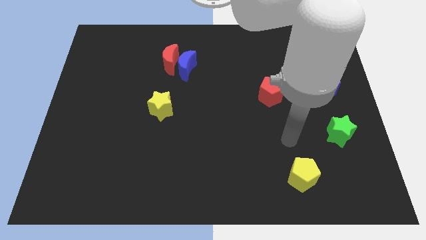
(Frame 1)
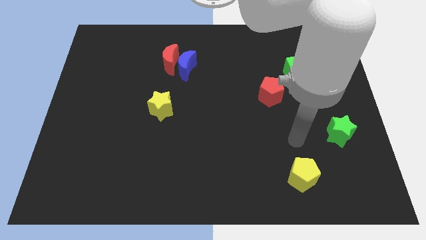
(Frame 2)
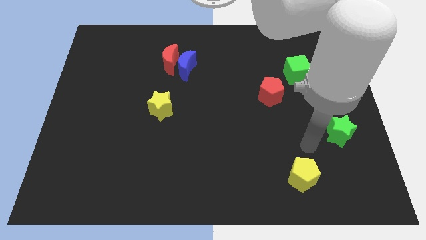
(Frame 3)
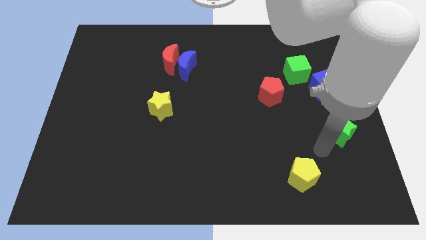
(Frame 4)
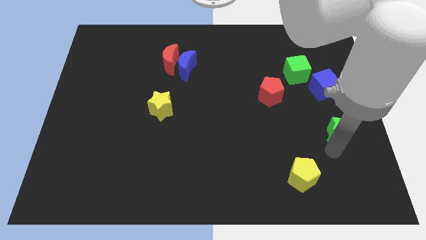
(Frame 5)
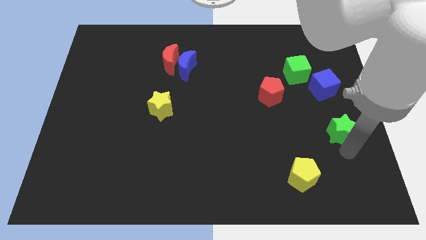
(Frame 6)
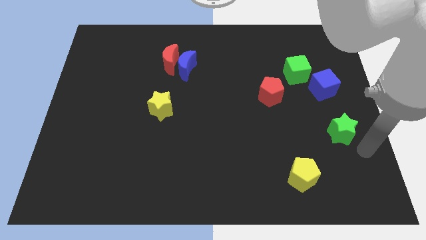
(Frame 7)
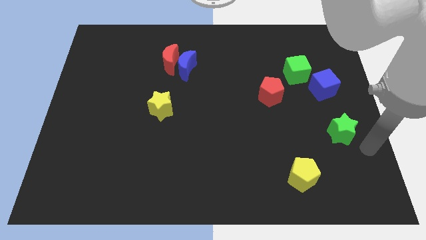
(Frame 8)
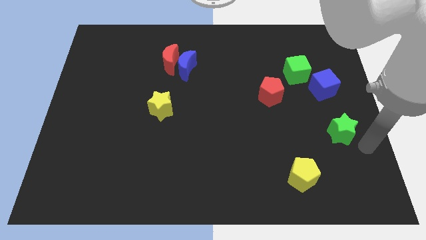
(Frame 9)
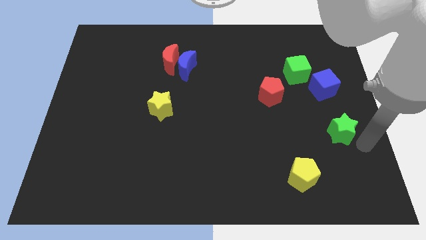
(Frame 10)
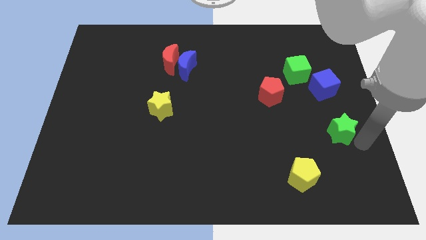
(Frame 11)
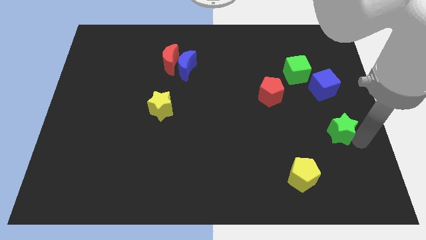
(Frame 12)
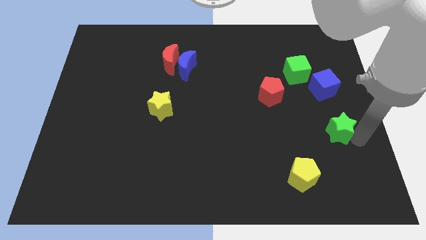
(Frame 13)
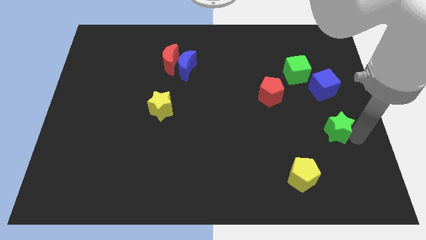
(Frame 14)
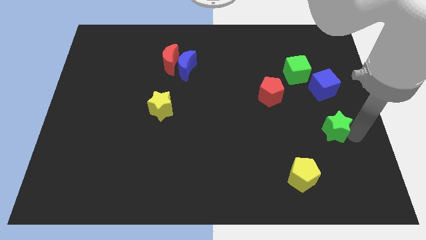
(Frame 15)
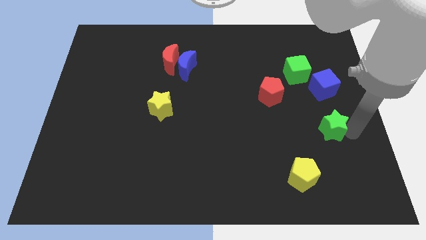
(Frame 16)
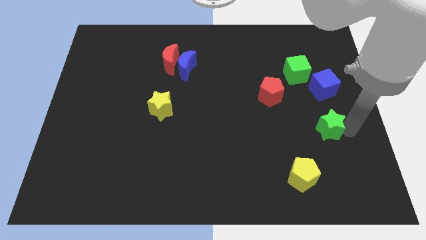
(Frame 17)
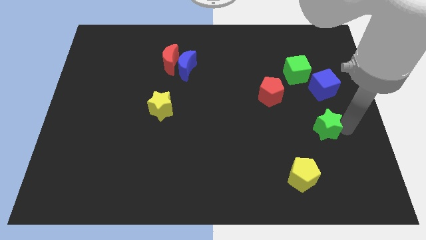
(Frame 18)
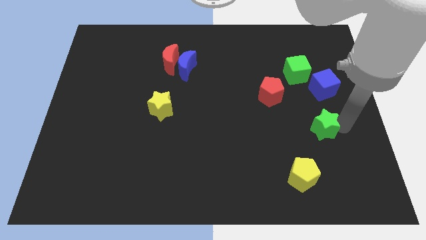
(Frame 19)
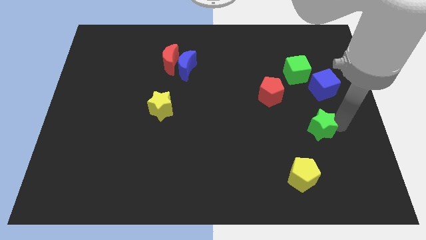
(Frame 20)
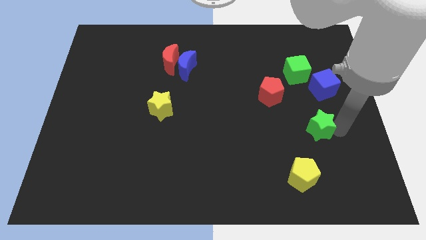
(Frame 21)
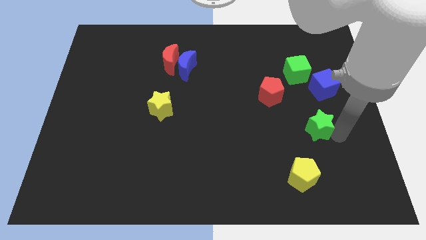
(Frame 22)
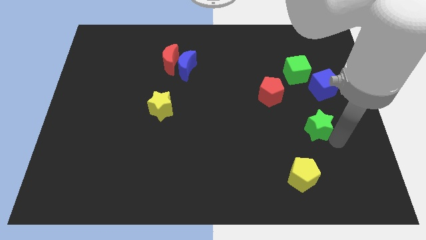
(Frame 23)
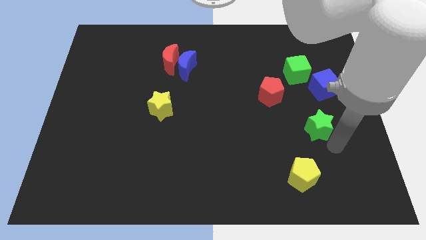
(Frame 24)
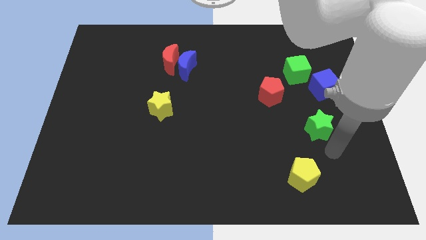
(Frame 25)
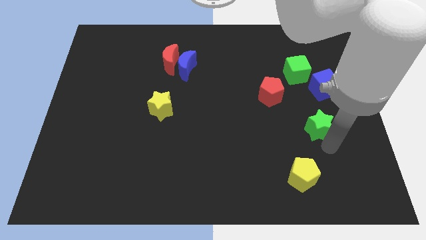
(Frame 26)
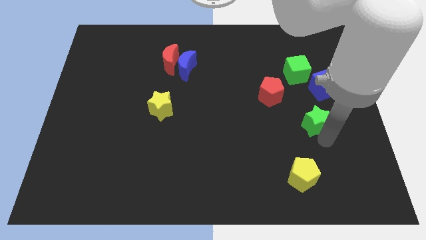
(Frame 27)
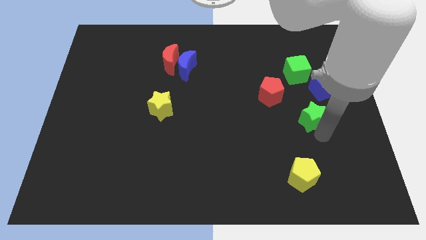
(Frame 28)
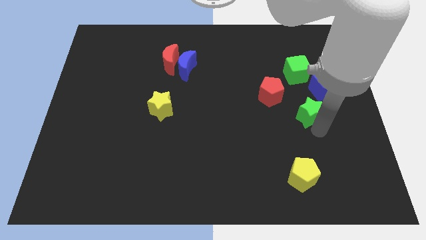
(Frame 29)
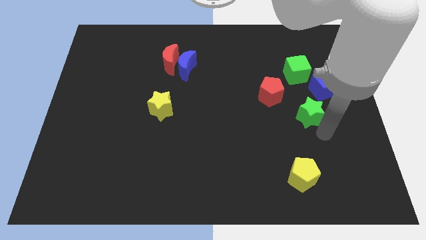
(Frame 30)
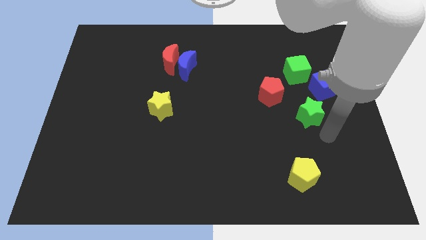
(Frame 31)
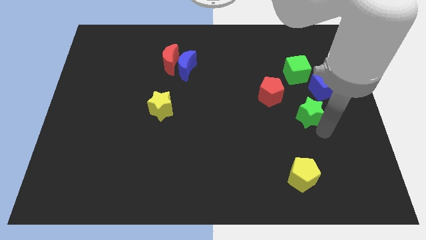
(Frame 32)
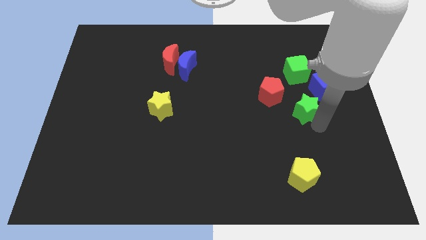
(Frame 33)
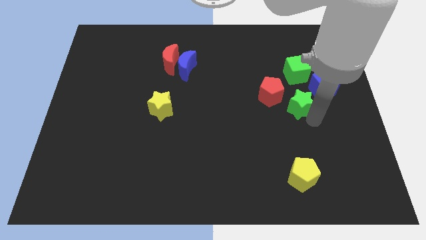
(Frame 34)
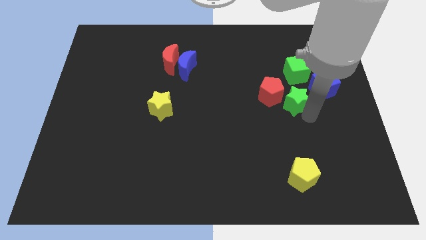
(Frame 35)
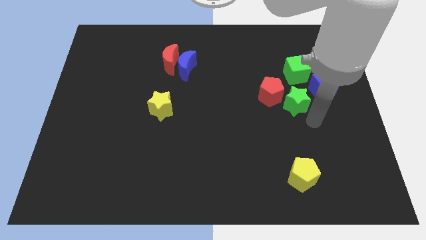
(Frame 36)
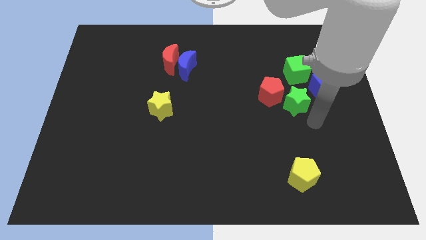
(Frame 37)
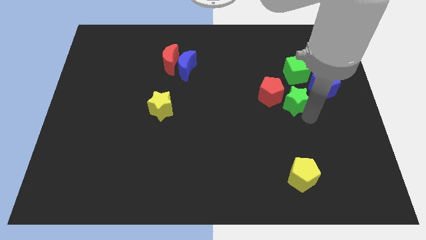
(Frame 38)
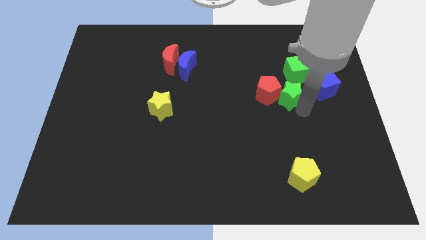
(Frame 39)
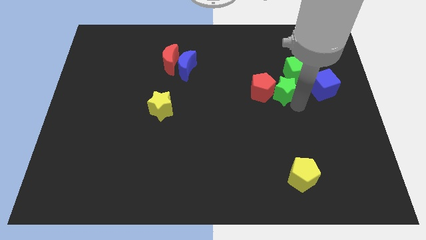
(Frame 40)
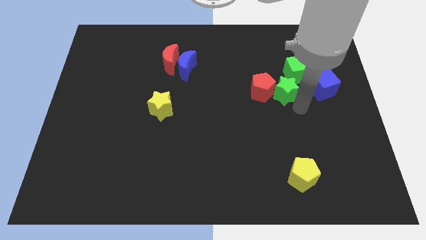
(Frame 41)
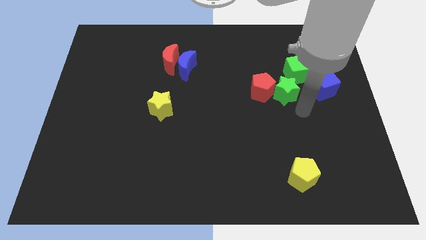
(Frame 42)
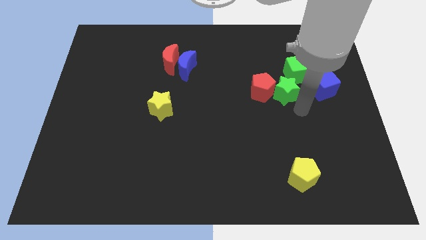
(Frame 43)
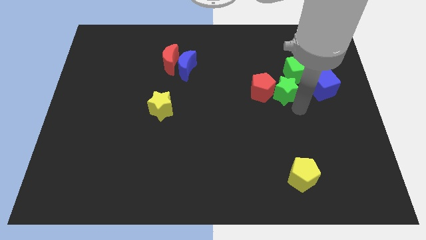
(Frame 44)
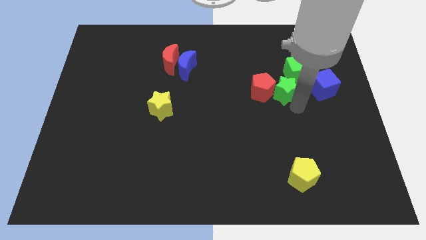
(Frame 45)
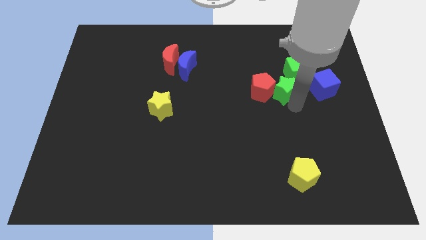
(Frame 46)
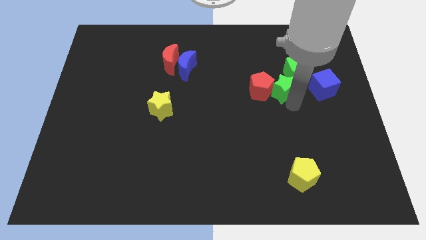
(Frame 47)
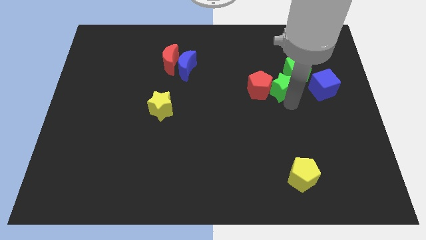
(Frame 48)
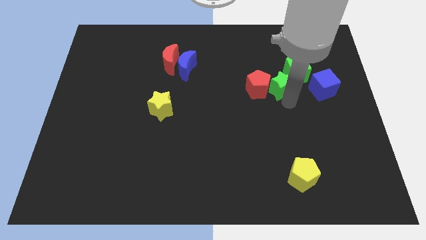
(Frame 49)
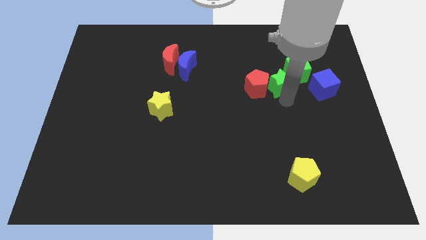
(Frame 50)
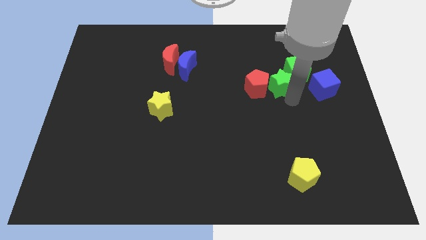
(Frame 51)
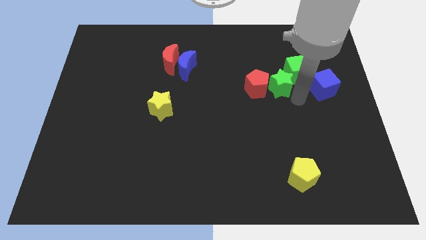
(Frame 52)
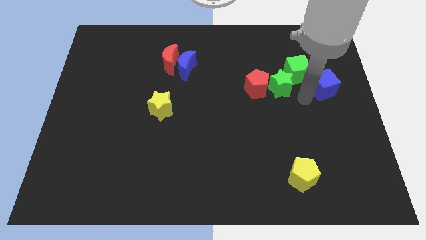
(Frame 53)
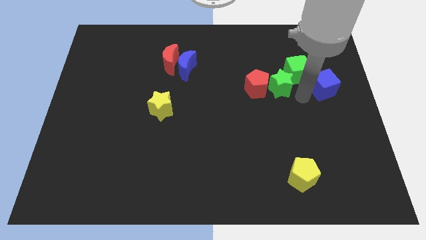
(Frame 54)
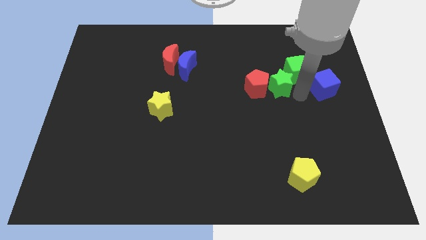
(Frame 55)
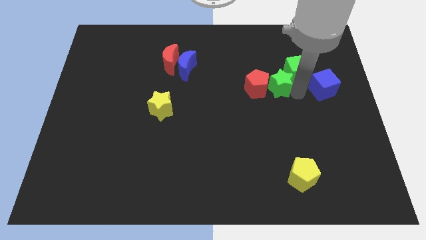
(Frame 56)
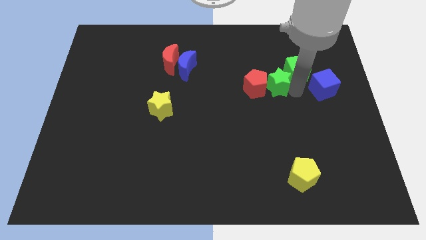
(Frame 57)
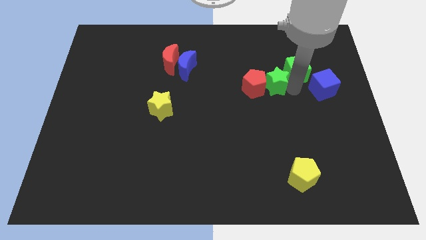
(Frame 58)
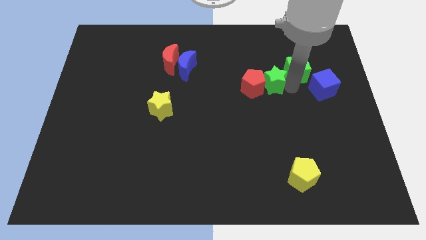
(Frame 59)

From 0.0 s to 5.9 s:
push the green star diagonally upwards and left

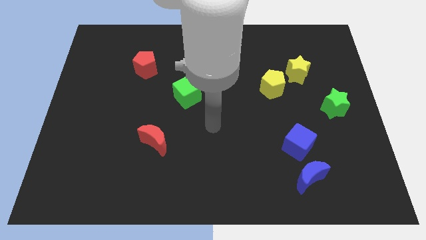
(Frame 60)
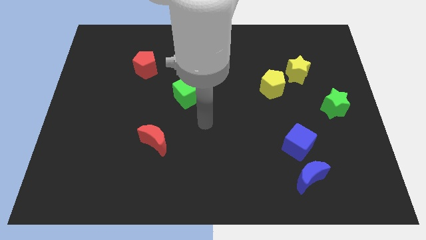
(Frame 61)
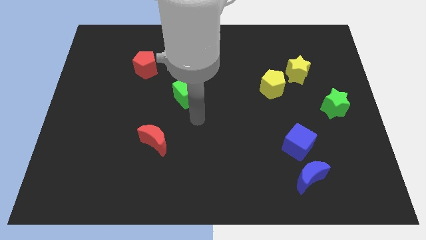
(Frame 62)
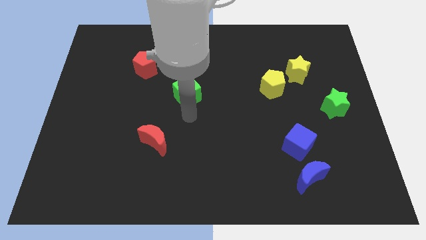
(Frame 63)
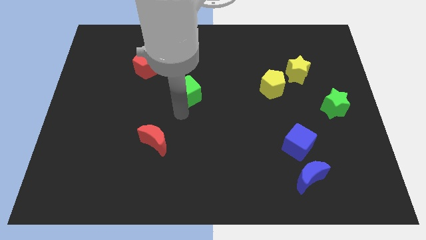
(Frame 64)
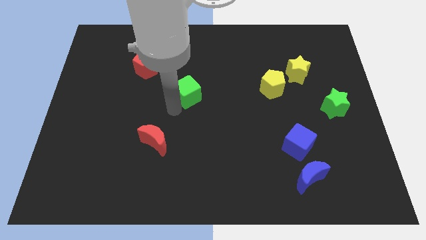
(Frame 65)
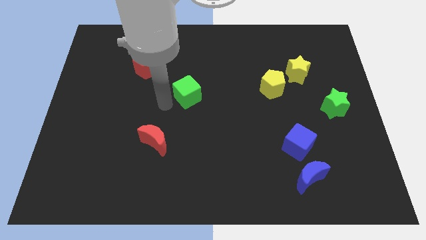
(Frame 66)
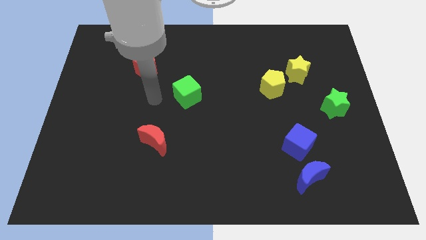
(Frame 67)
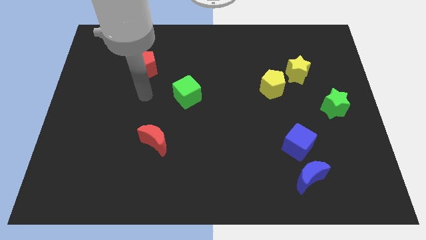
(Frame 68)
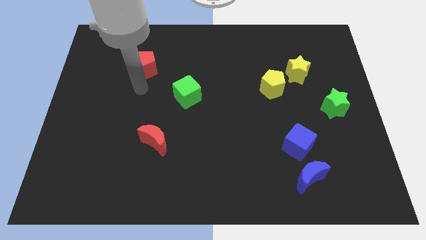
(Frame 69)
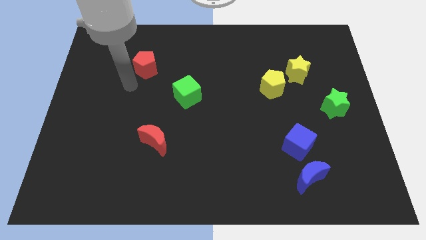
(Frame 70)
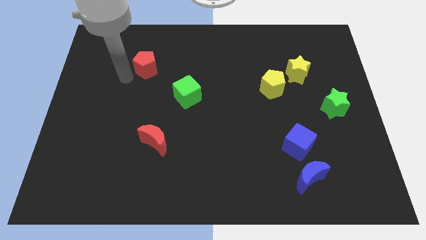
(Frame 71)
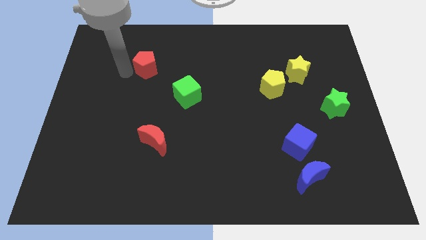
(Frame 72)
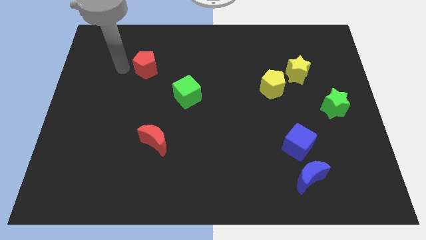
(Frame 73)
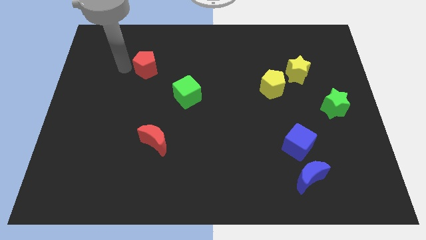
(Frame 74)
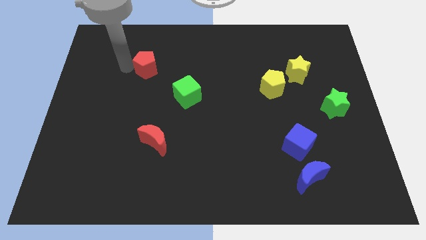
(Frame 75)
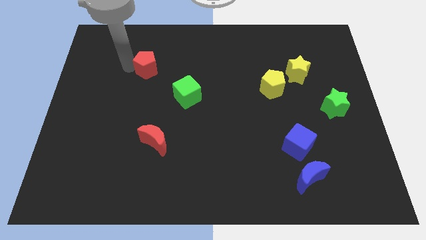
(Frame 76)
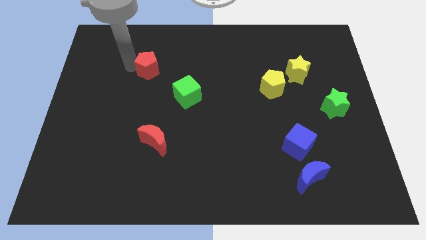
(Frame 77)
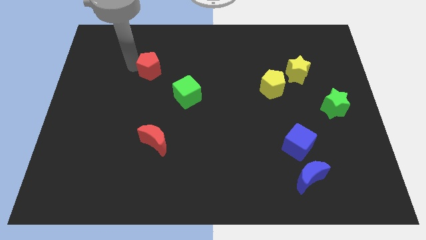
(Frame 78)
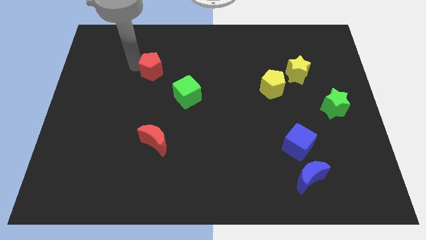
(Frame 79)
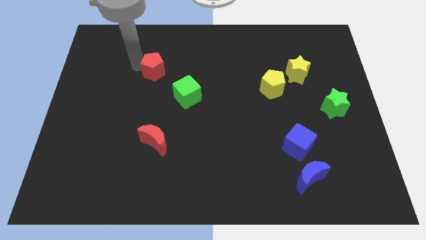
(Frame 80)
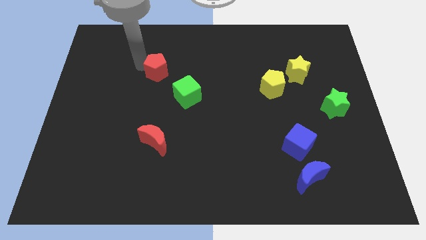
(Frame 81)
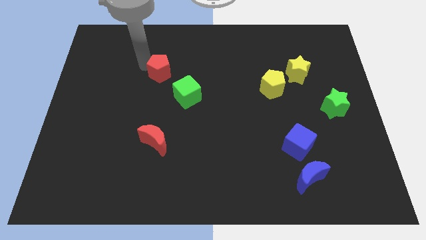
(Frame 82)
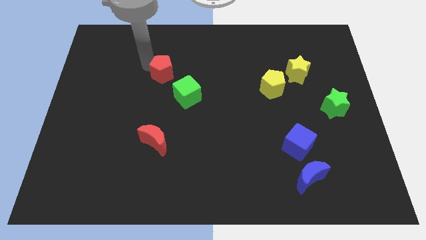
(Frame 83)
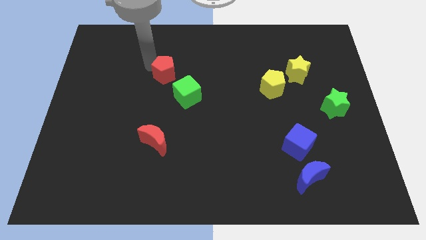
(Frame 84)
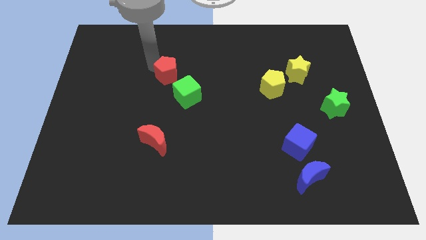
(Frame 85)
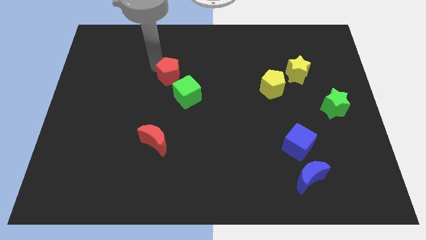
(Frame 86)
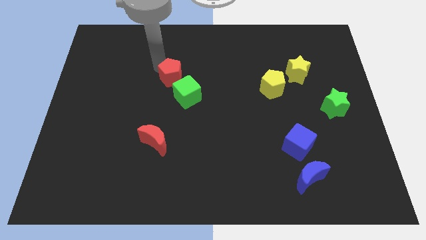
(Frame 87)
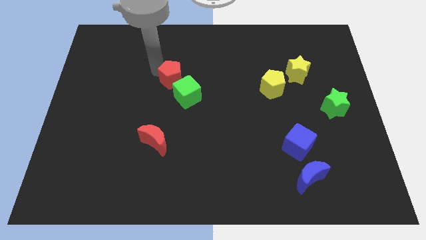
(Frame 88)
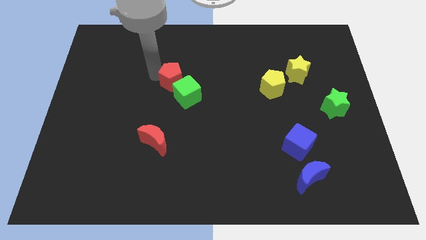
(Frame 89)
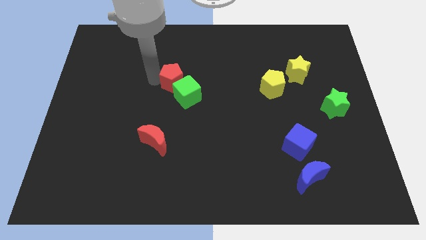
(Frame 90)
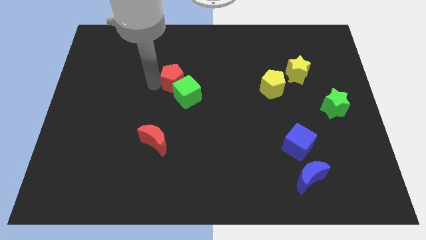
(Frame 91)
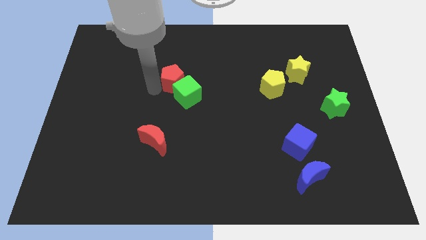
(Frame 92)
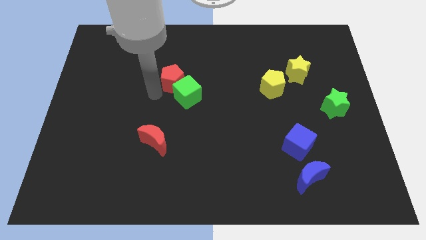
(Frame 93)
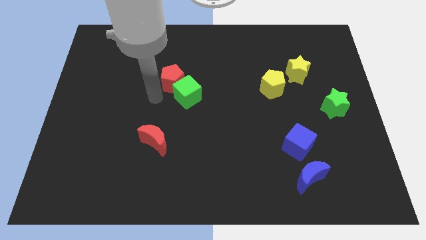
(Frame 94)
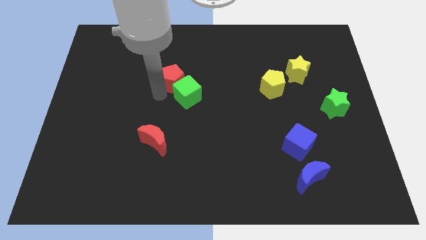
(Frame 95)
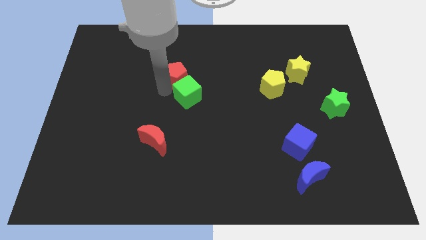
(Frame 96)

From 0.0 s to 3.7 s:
slightly push the red pentagon to the right
